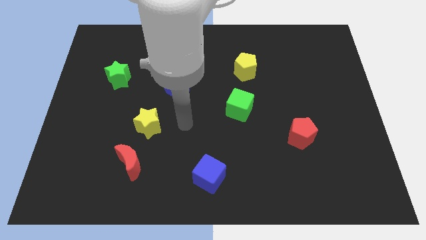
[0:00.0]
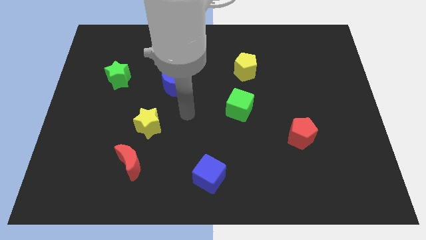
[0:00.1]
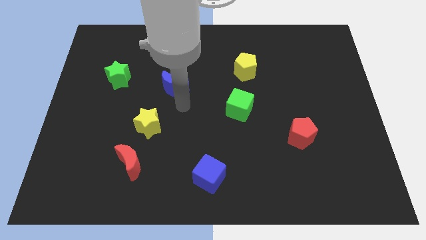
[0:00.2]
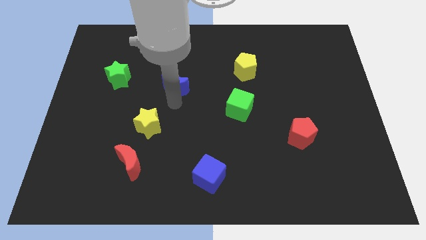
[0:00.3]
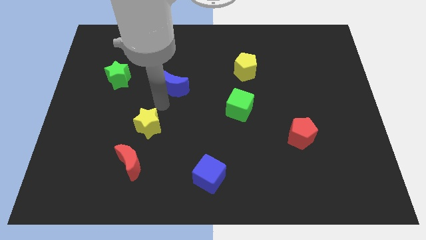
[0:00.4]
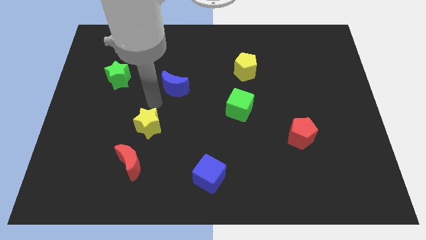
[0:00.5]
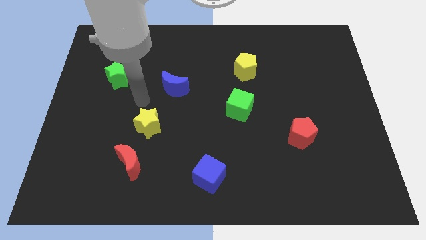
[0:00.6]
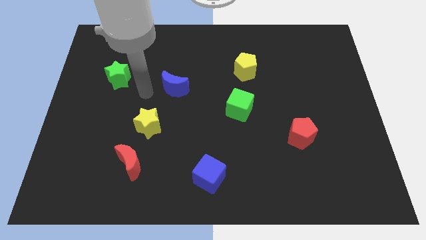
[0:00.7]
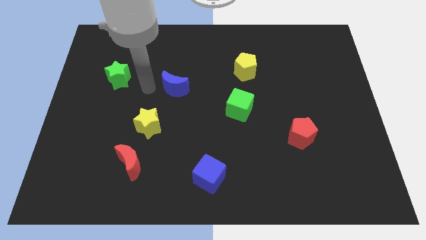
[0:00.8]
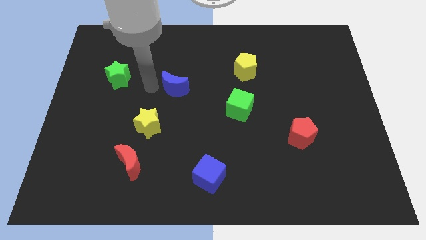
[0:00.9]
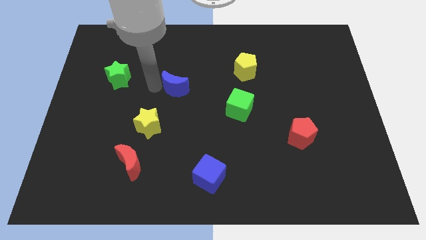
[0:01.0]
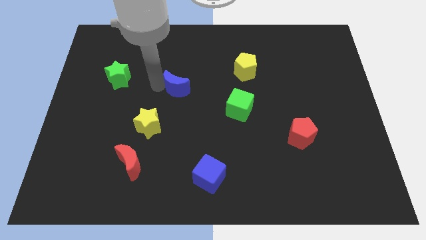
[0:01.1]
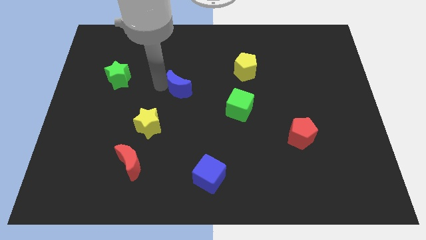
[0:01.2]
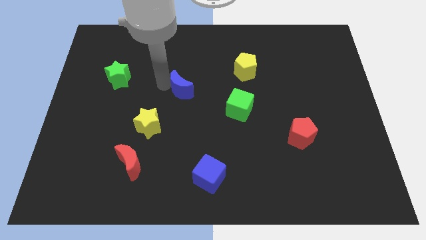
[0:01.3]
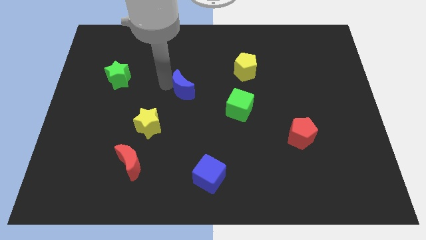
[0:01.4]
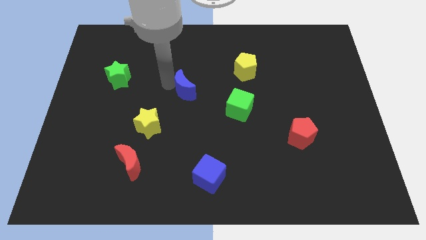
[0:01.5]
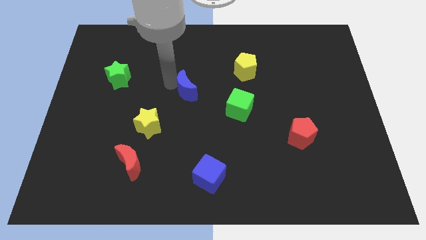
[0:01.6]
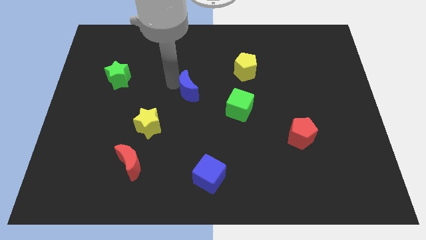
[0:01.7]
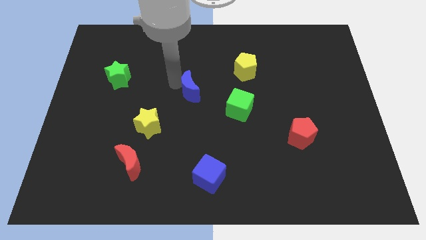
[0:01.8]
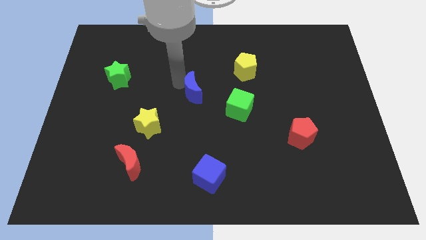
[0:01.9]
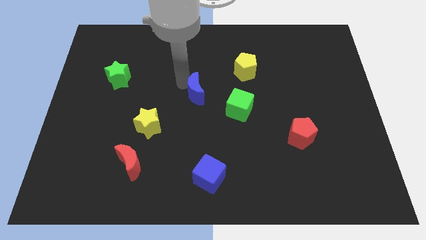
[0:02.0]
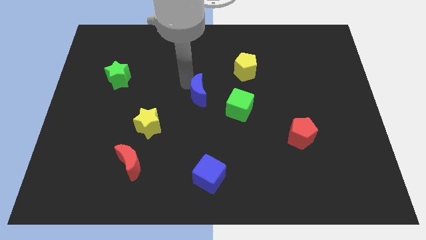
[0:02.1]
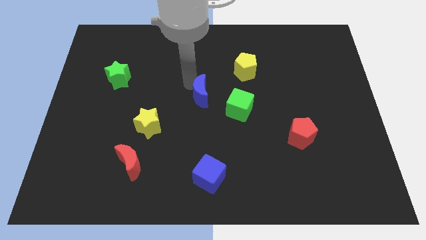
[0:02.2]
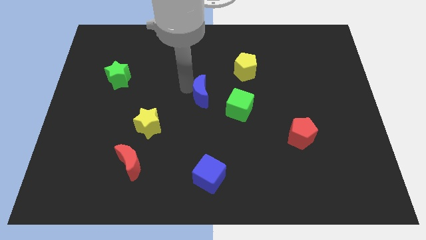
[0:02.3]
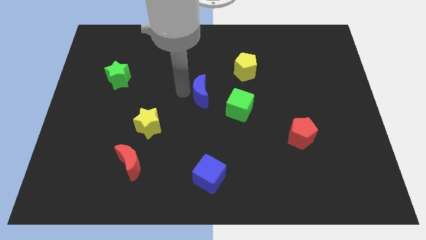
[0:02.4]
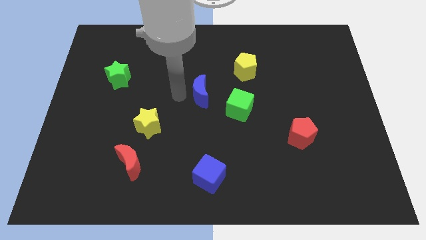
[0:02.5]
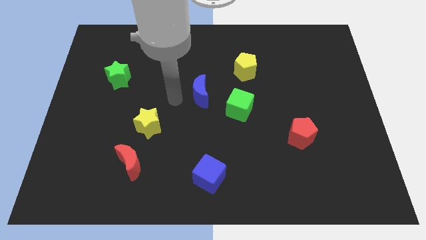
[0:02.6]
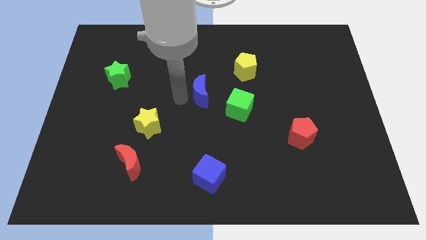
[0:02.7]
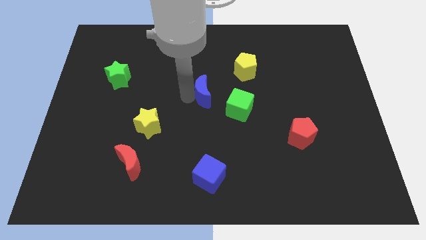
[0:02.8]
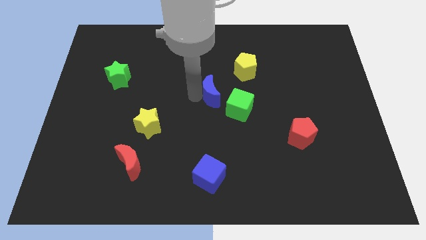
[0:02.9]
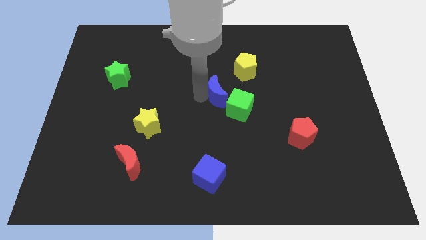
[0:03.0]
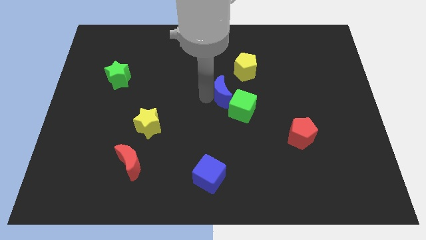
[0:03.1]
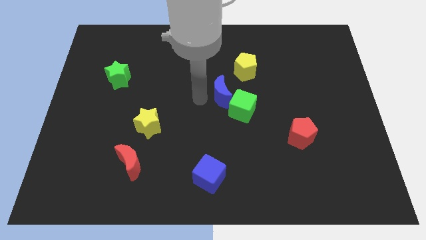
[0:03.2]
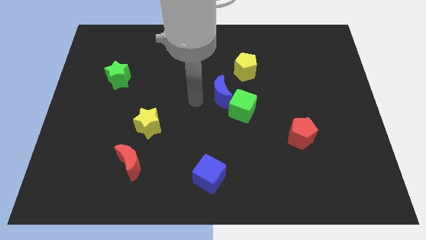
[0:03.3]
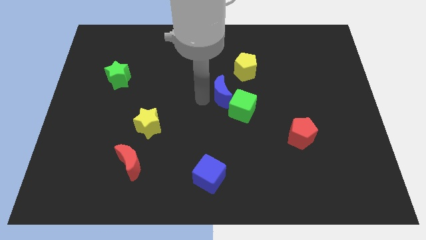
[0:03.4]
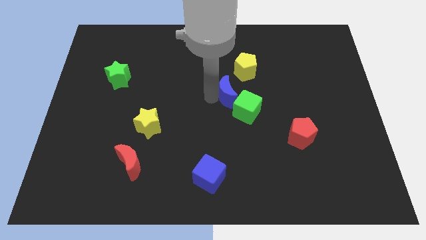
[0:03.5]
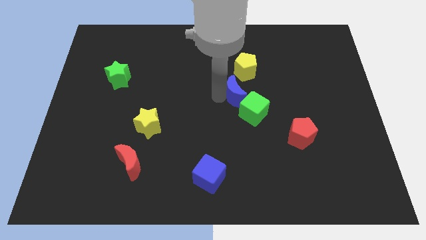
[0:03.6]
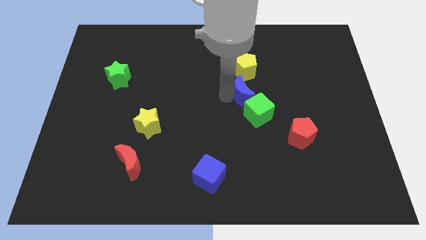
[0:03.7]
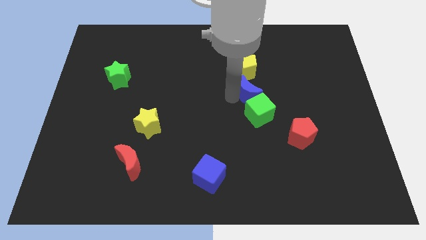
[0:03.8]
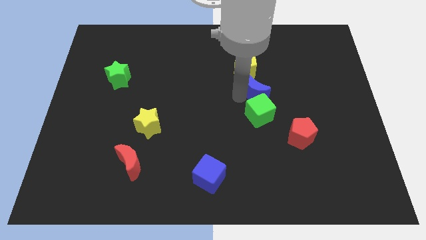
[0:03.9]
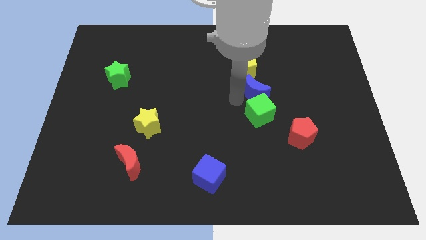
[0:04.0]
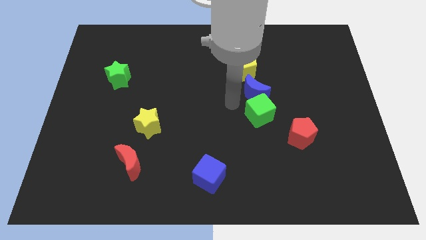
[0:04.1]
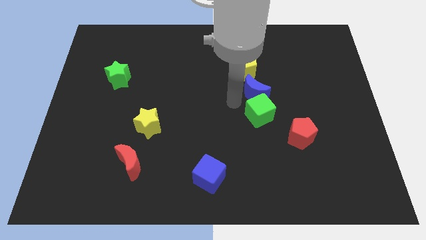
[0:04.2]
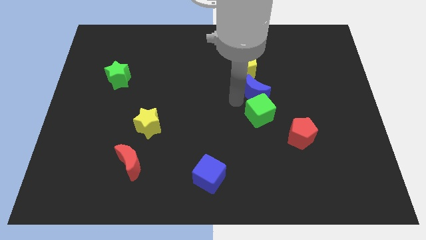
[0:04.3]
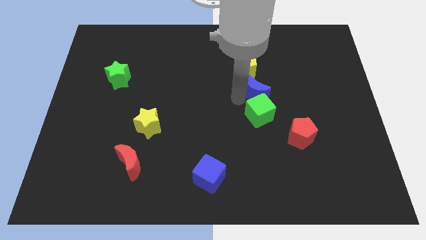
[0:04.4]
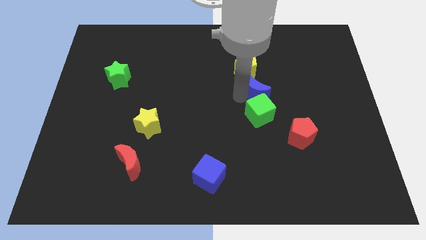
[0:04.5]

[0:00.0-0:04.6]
push the blue moon right

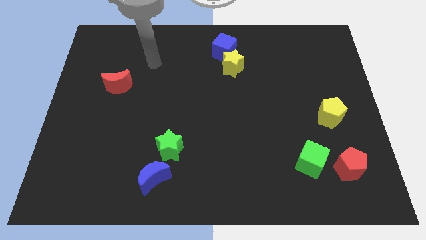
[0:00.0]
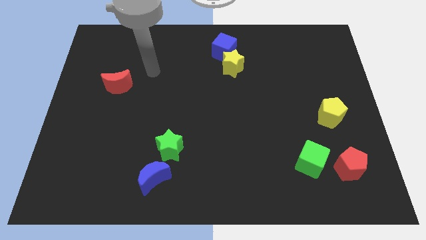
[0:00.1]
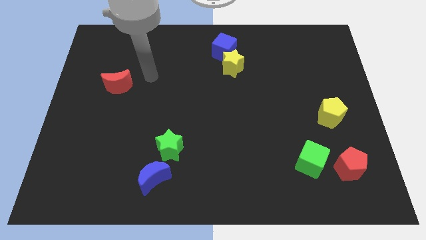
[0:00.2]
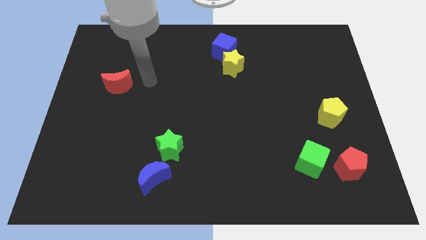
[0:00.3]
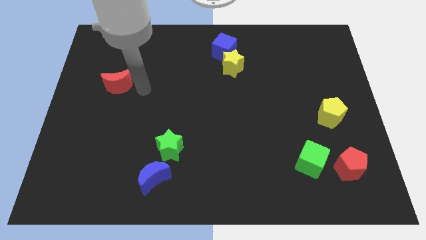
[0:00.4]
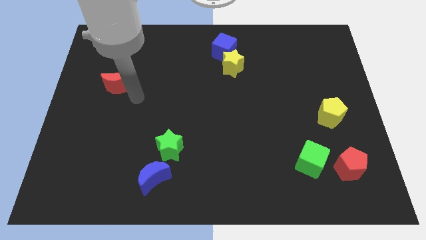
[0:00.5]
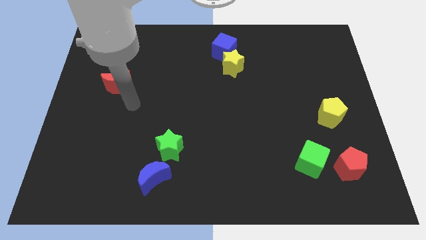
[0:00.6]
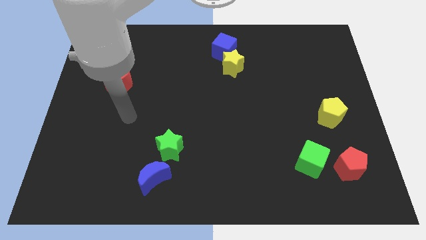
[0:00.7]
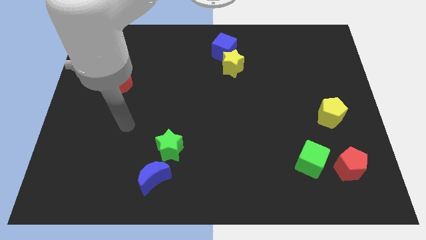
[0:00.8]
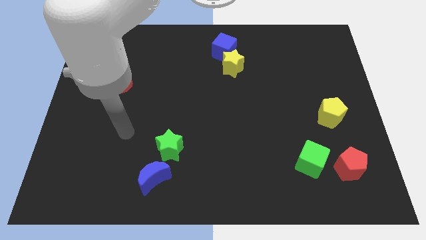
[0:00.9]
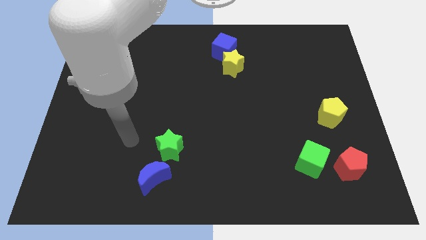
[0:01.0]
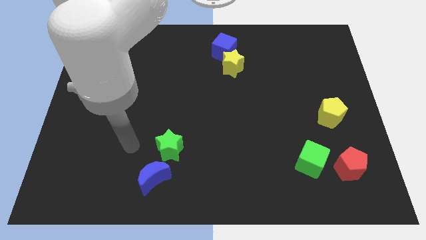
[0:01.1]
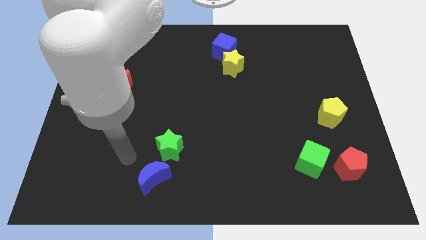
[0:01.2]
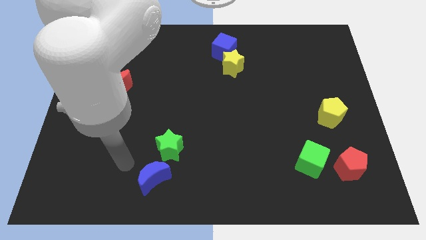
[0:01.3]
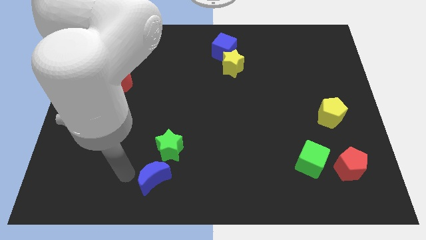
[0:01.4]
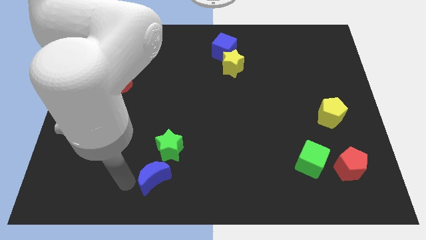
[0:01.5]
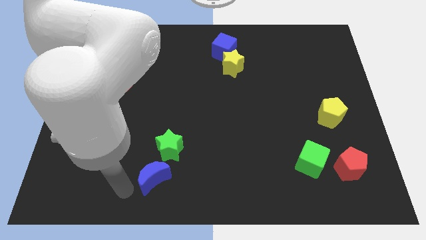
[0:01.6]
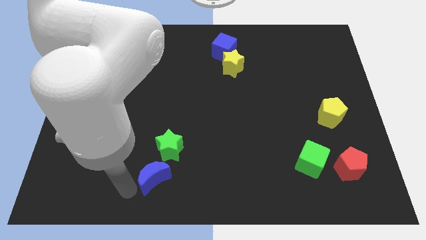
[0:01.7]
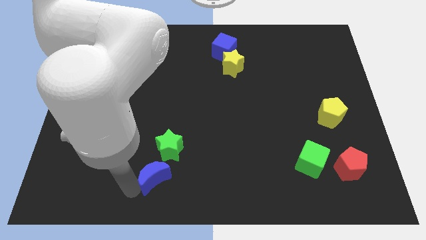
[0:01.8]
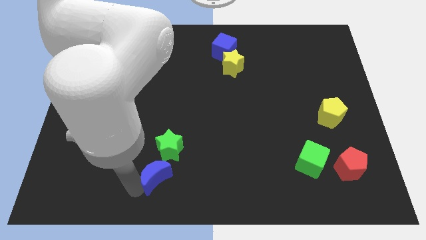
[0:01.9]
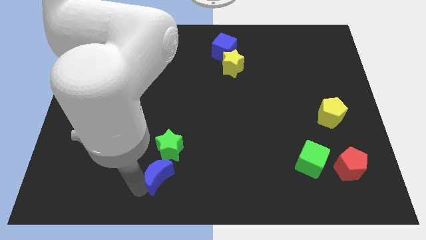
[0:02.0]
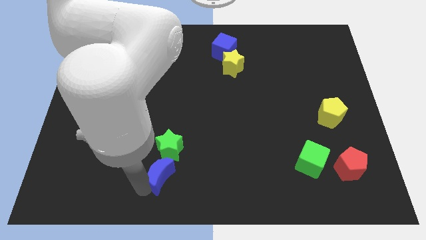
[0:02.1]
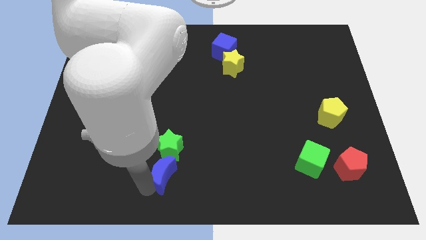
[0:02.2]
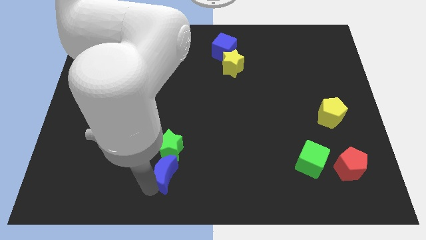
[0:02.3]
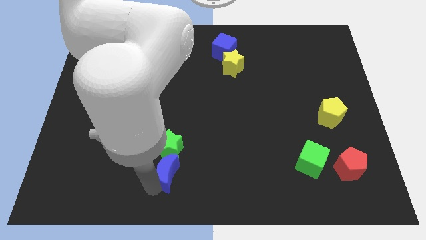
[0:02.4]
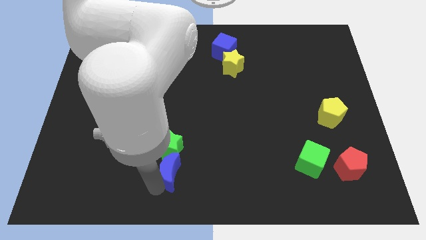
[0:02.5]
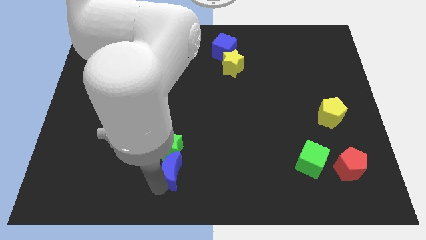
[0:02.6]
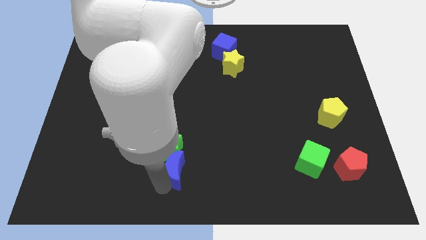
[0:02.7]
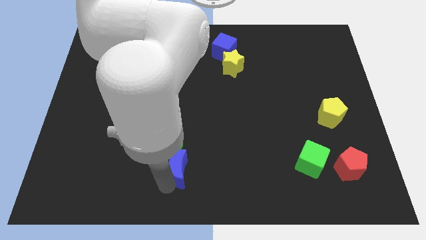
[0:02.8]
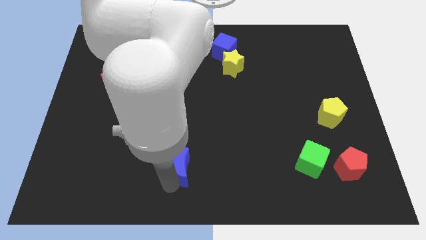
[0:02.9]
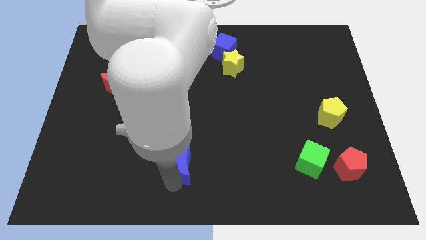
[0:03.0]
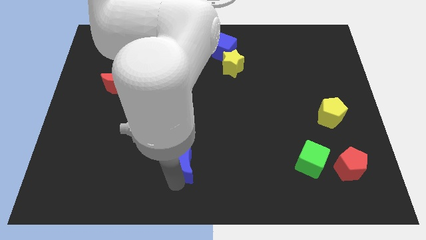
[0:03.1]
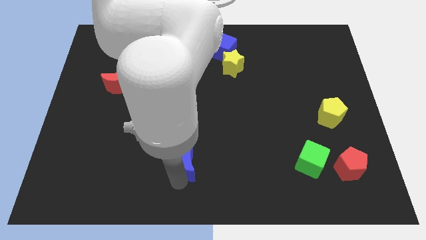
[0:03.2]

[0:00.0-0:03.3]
slide the blue moon up and then right slightly
